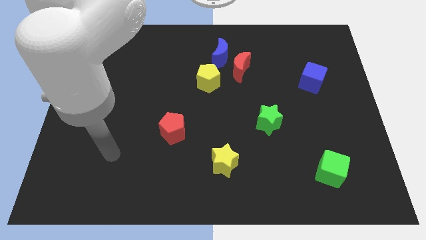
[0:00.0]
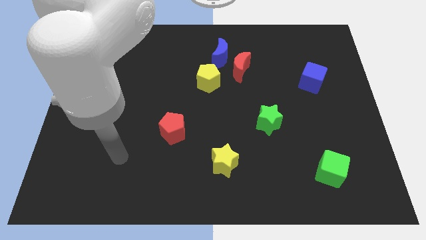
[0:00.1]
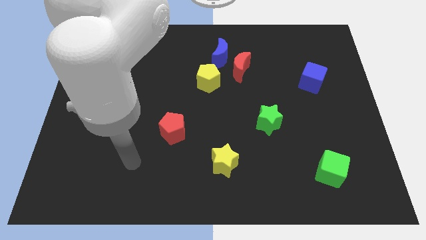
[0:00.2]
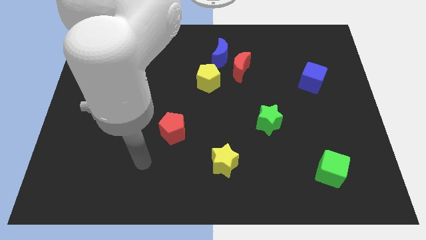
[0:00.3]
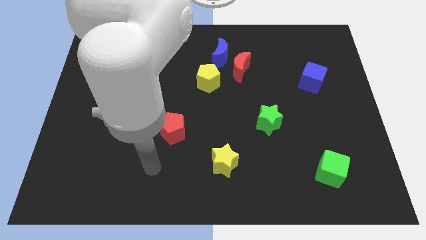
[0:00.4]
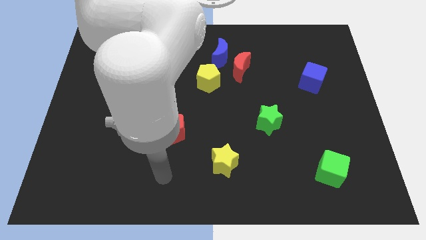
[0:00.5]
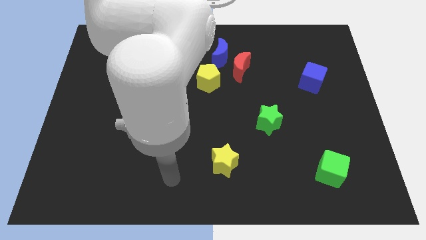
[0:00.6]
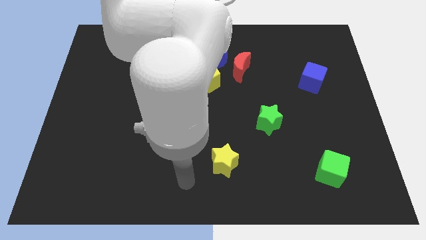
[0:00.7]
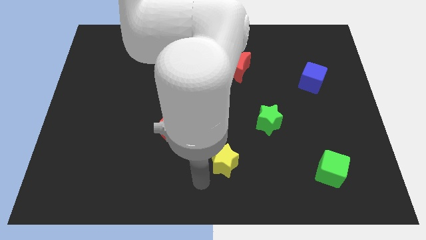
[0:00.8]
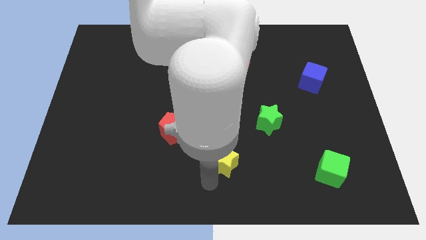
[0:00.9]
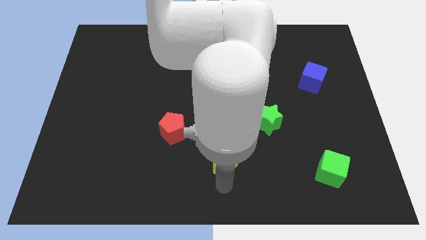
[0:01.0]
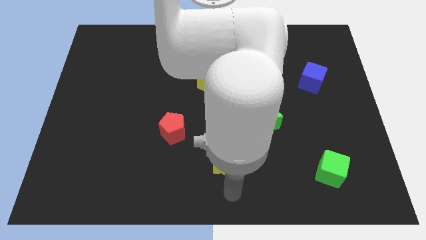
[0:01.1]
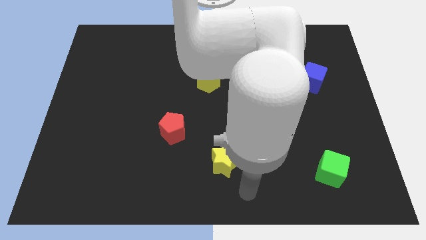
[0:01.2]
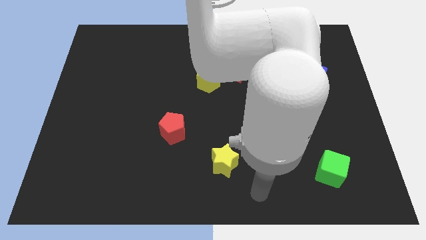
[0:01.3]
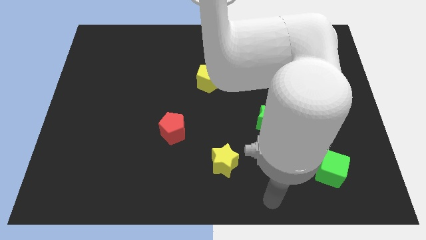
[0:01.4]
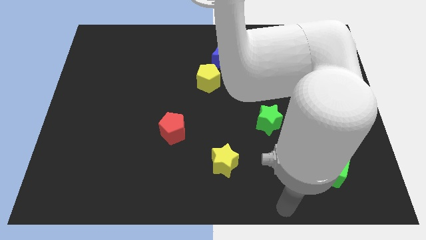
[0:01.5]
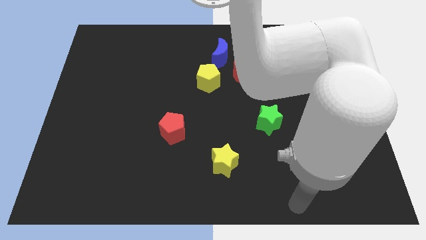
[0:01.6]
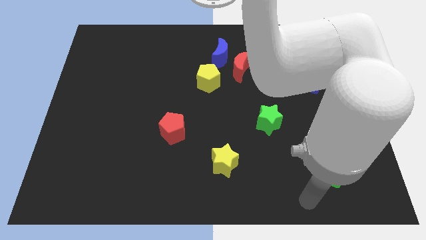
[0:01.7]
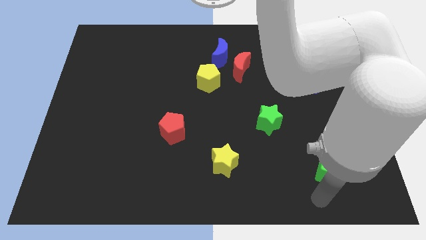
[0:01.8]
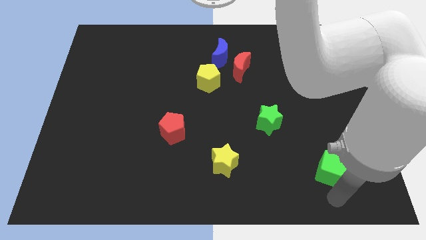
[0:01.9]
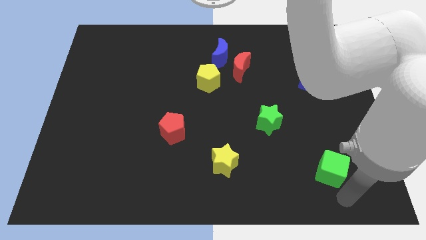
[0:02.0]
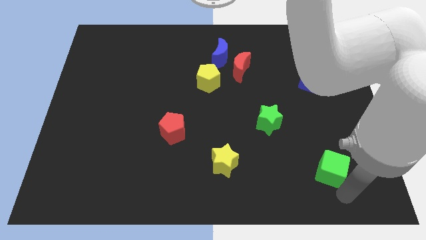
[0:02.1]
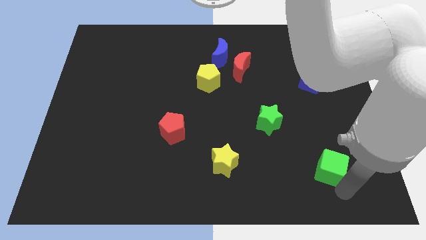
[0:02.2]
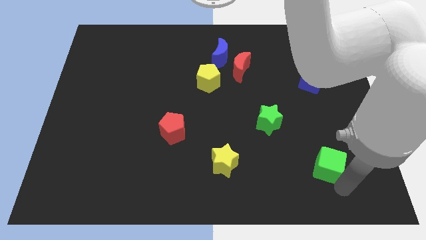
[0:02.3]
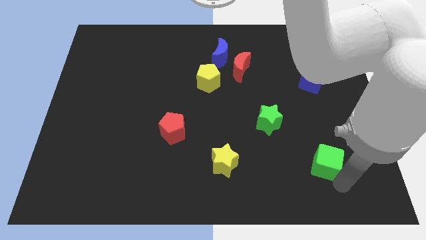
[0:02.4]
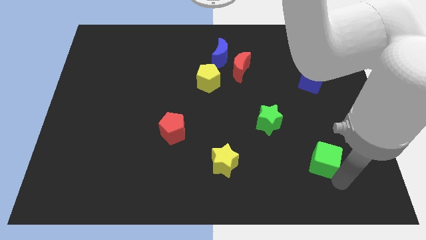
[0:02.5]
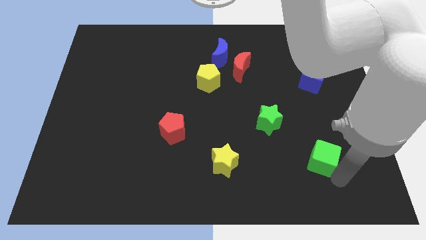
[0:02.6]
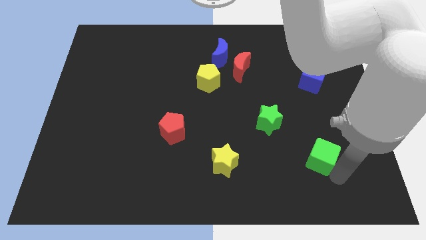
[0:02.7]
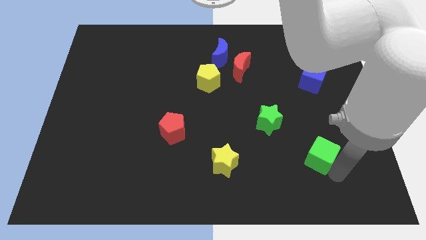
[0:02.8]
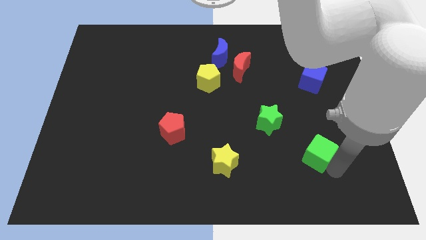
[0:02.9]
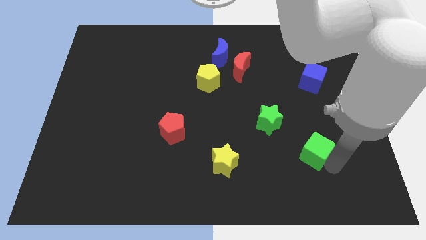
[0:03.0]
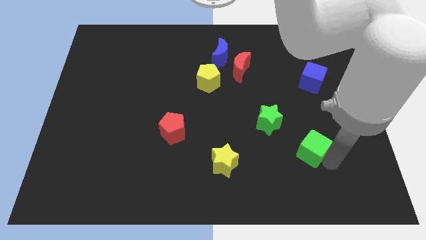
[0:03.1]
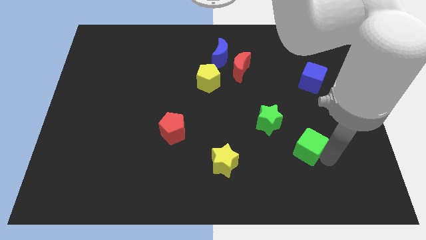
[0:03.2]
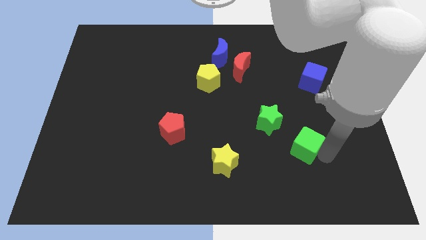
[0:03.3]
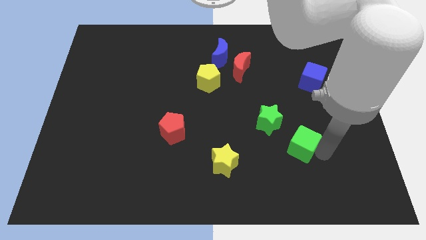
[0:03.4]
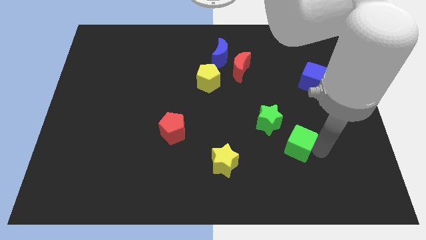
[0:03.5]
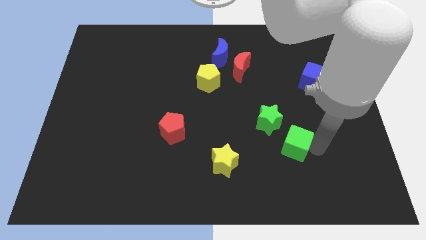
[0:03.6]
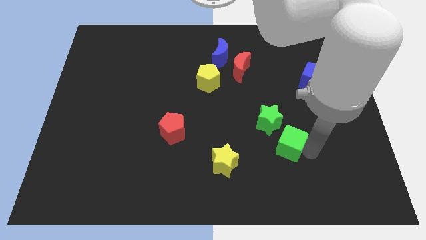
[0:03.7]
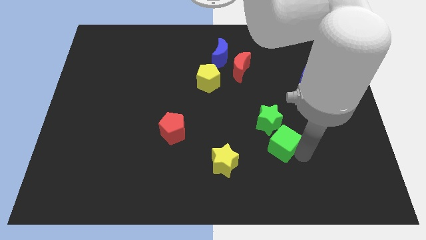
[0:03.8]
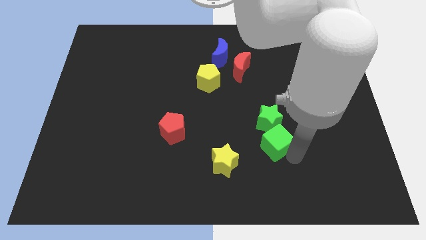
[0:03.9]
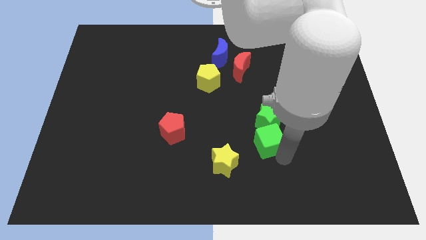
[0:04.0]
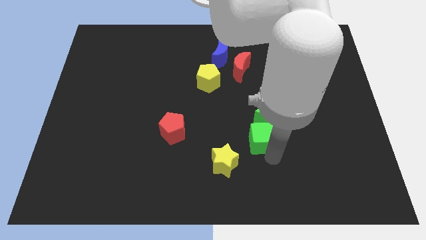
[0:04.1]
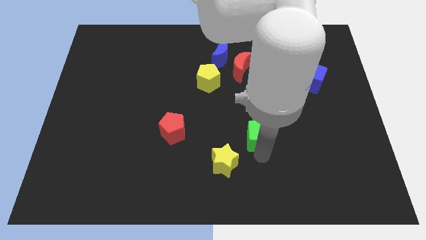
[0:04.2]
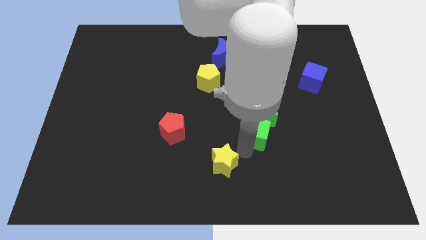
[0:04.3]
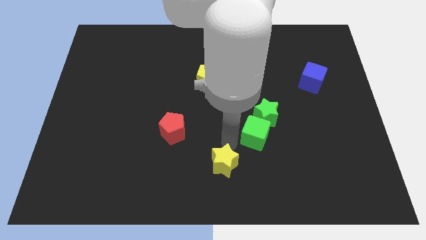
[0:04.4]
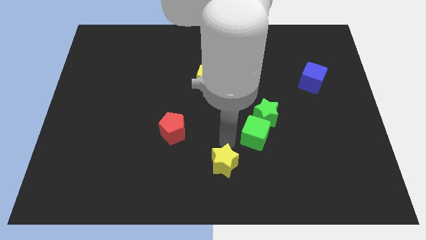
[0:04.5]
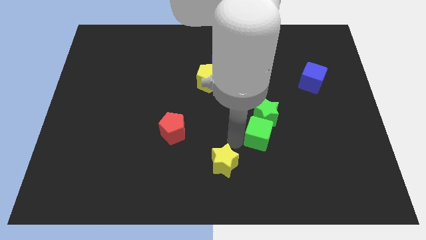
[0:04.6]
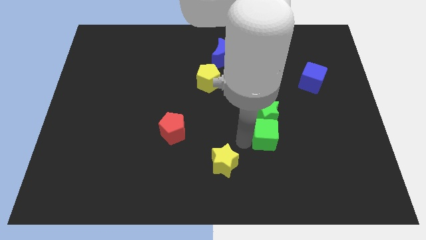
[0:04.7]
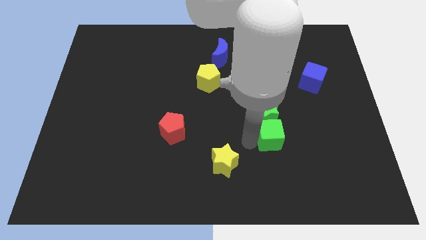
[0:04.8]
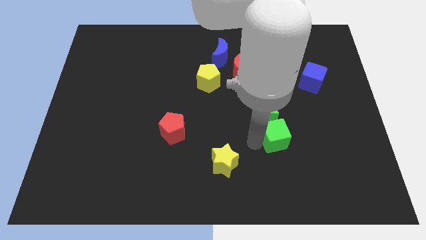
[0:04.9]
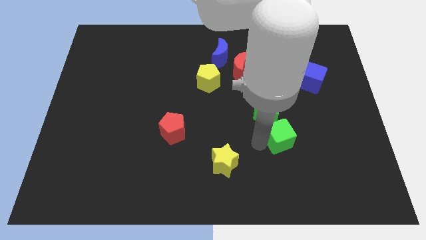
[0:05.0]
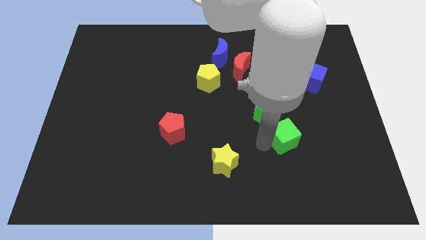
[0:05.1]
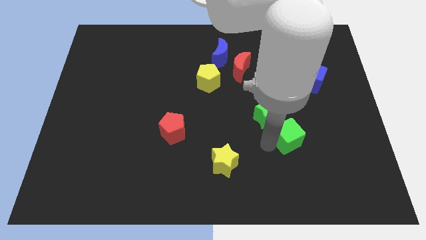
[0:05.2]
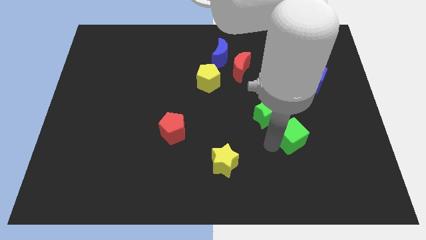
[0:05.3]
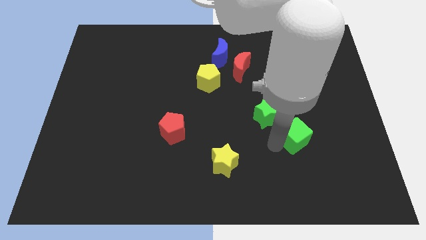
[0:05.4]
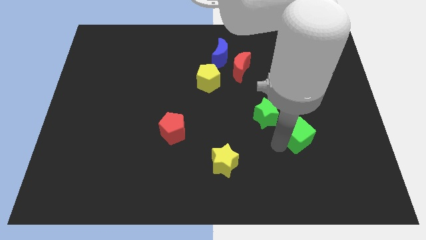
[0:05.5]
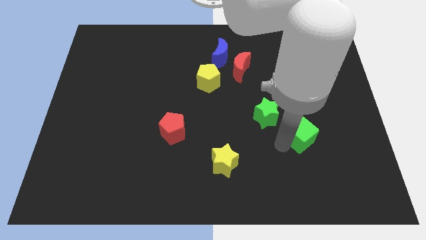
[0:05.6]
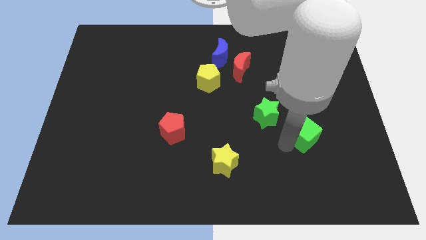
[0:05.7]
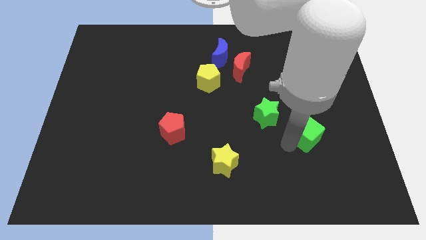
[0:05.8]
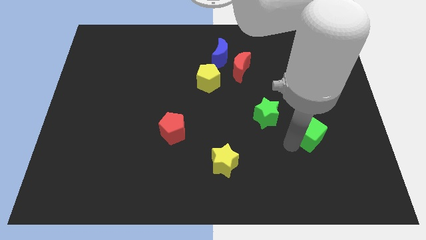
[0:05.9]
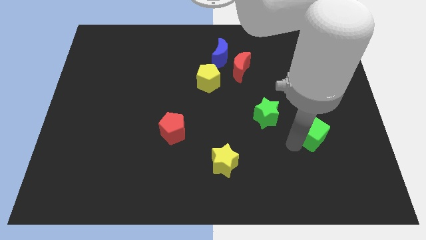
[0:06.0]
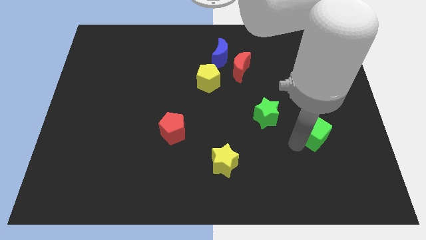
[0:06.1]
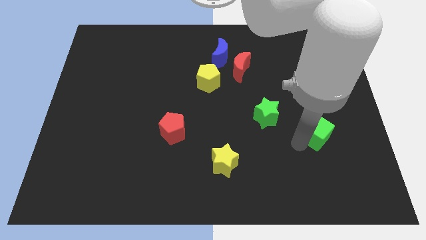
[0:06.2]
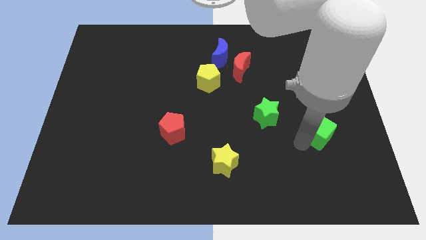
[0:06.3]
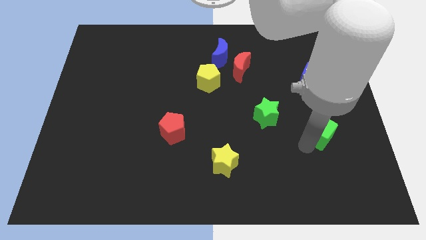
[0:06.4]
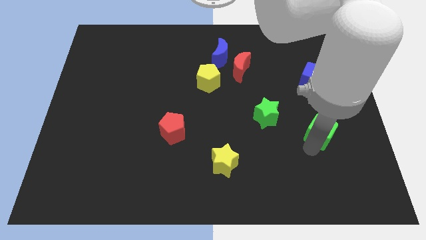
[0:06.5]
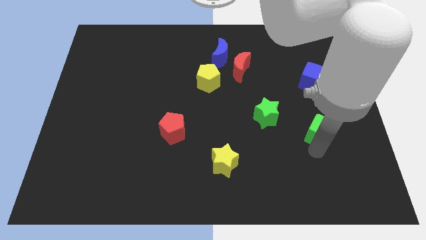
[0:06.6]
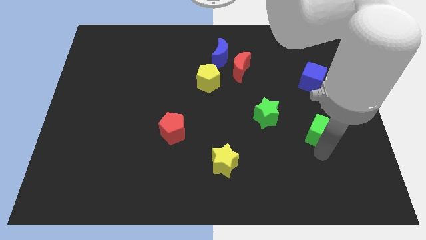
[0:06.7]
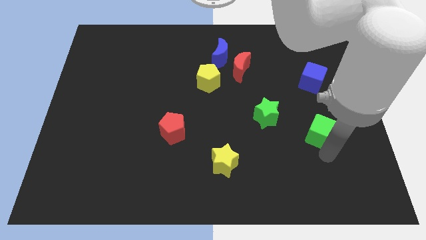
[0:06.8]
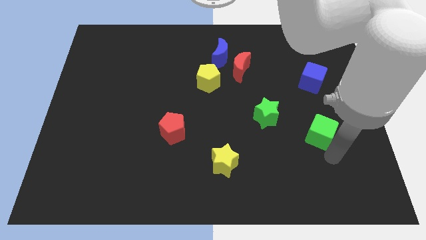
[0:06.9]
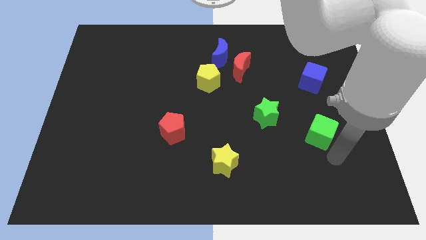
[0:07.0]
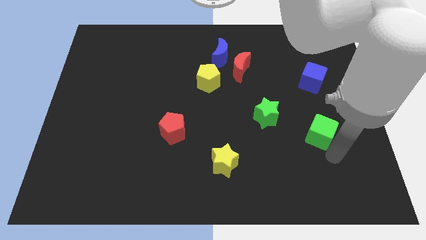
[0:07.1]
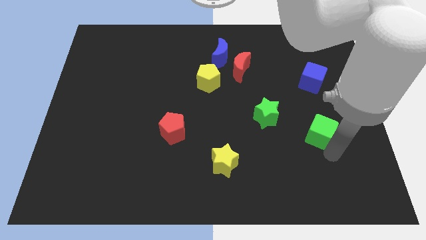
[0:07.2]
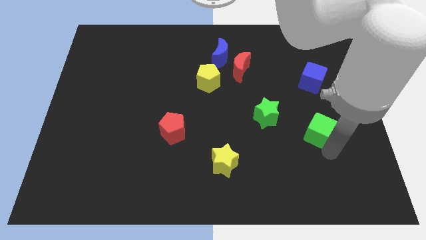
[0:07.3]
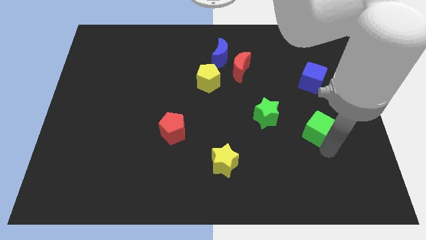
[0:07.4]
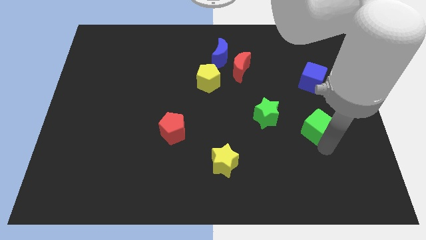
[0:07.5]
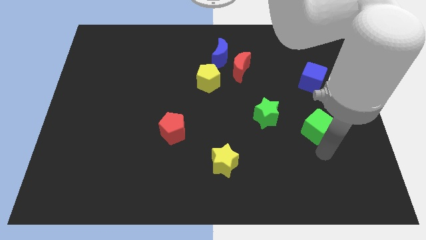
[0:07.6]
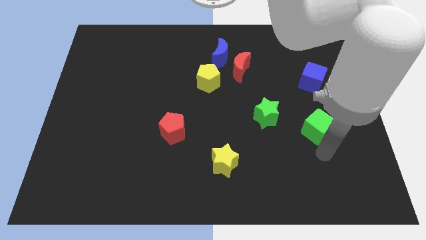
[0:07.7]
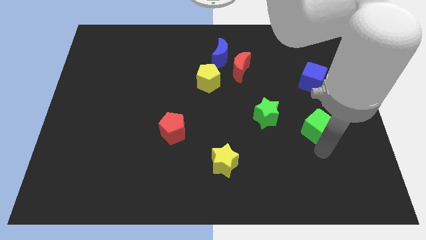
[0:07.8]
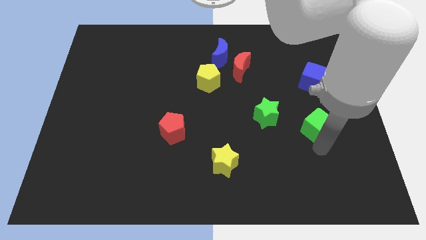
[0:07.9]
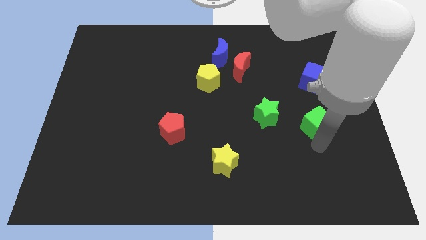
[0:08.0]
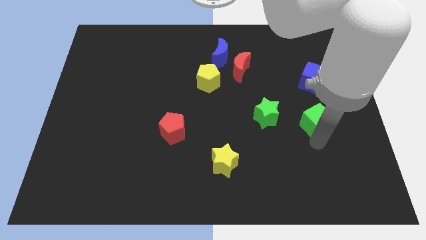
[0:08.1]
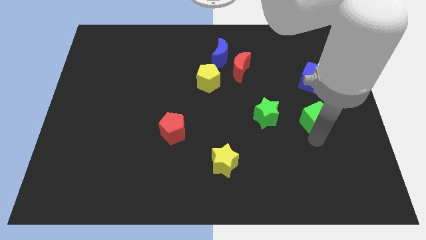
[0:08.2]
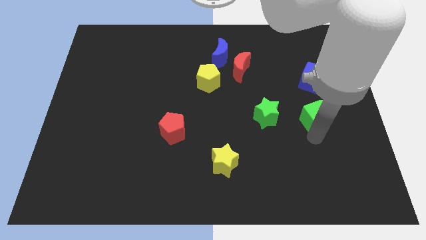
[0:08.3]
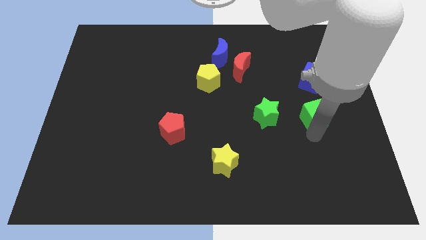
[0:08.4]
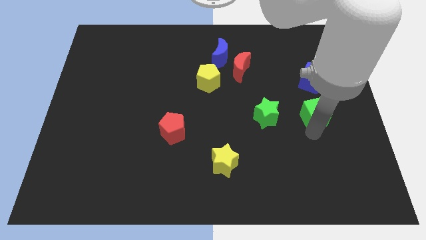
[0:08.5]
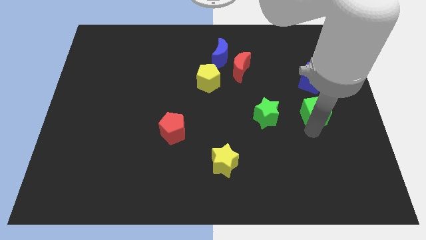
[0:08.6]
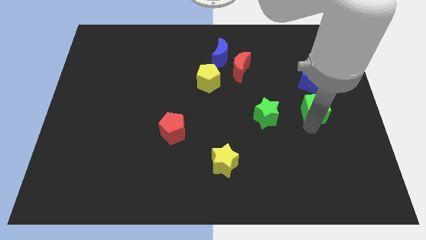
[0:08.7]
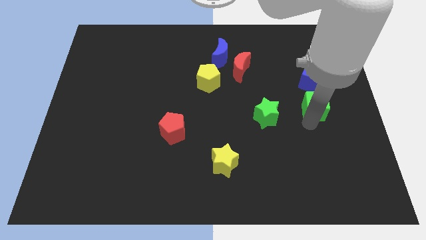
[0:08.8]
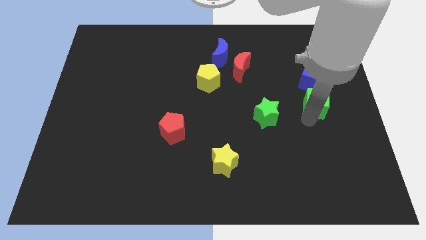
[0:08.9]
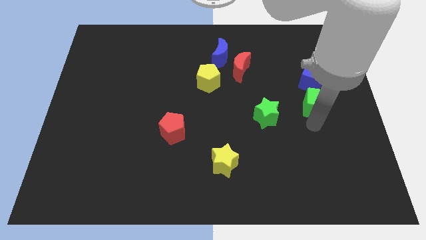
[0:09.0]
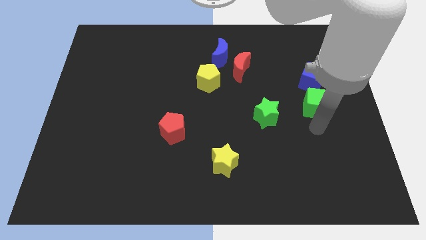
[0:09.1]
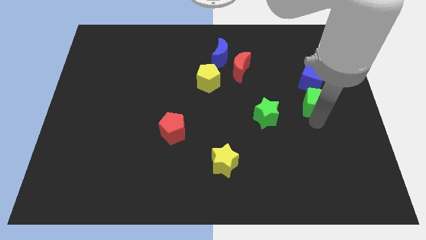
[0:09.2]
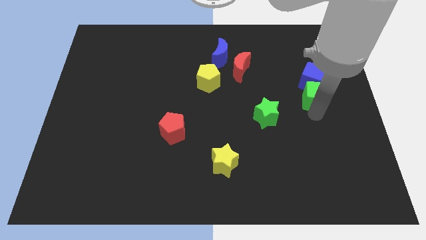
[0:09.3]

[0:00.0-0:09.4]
slide the green cube to the blue cube
